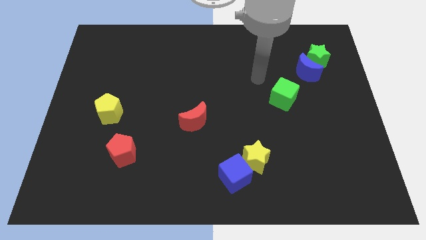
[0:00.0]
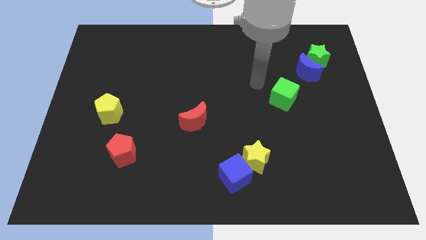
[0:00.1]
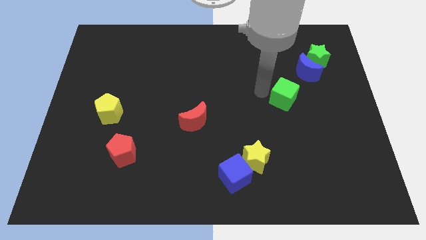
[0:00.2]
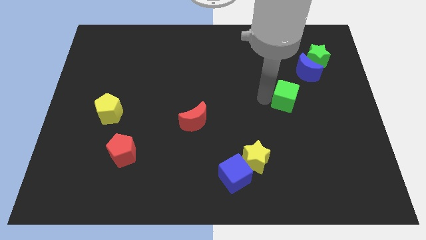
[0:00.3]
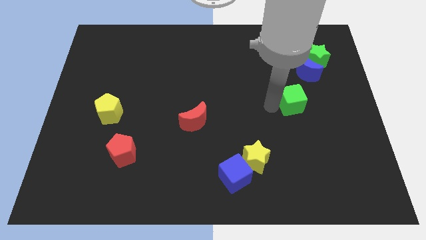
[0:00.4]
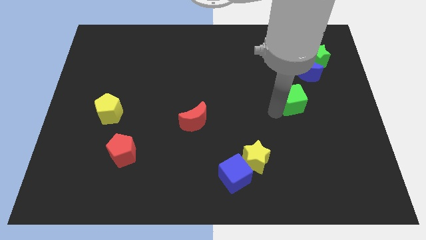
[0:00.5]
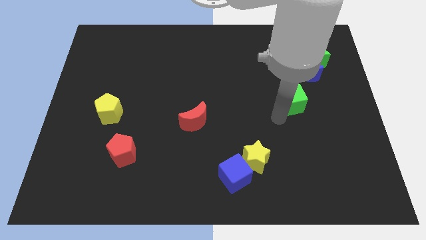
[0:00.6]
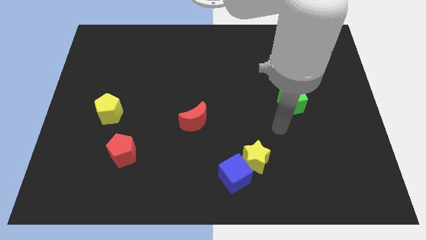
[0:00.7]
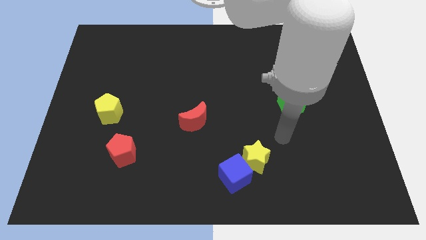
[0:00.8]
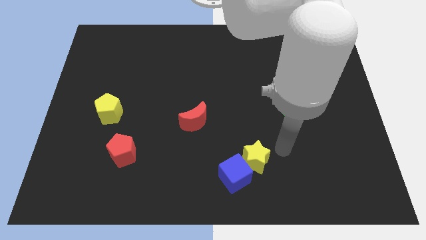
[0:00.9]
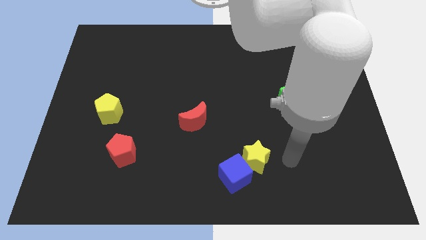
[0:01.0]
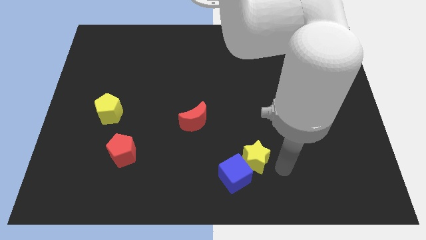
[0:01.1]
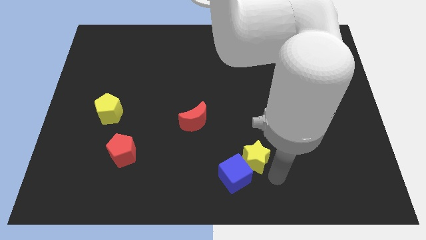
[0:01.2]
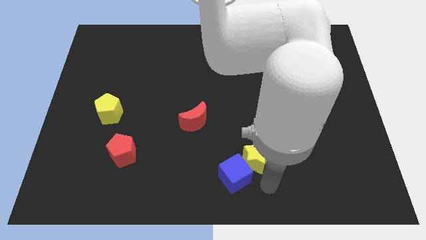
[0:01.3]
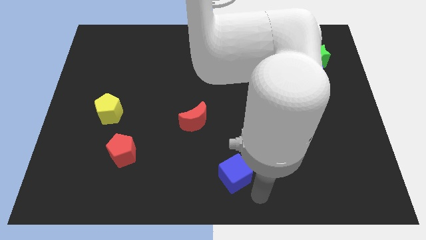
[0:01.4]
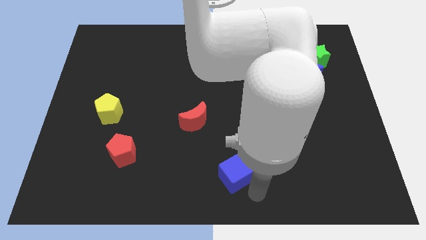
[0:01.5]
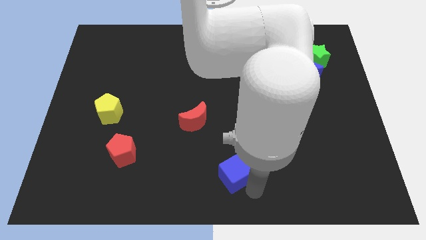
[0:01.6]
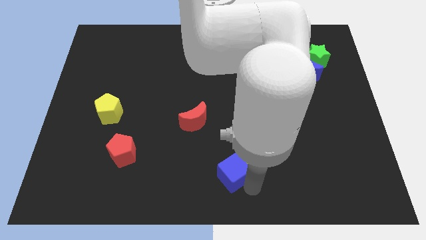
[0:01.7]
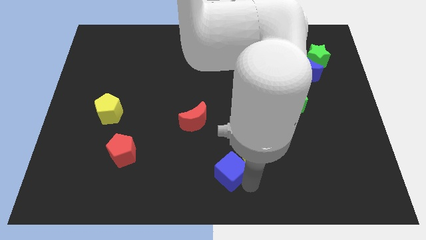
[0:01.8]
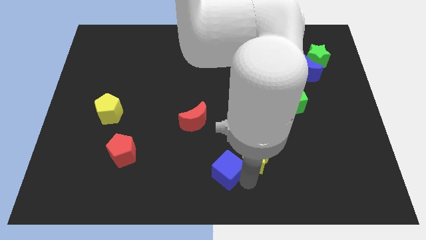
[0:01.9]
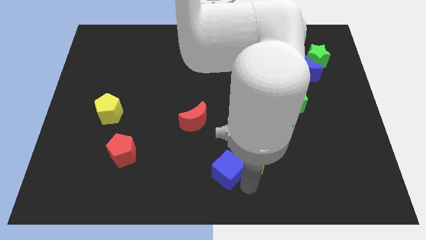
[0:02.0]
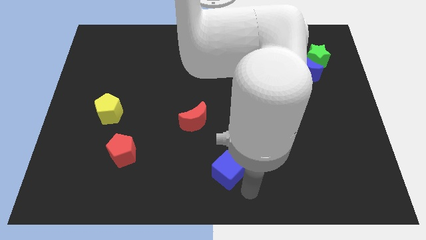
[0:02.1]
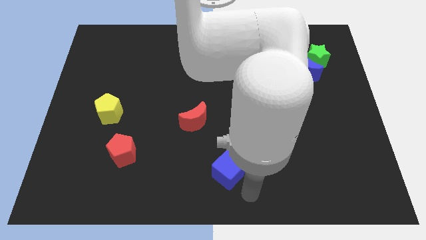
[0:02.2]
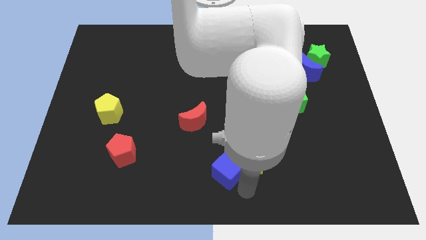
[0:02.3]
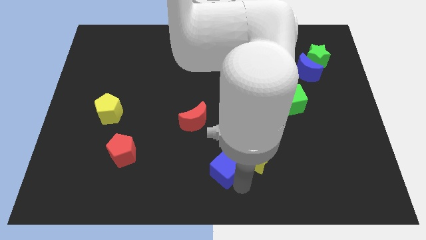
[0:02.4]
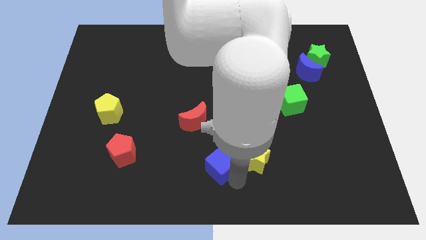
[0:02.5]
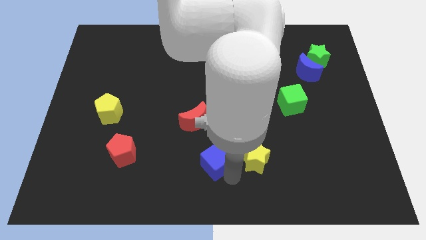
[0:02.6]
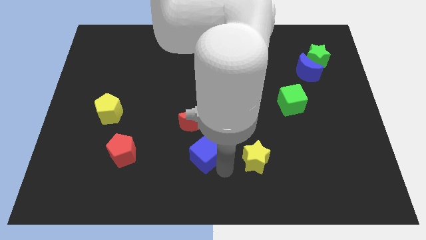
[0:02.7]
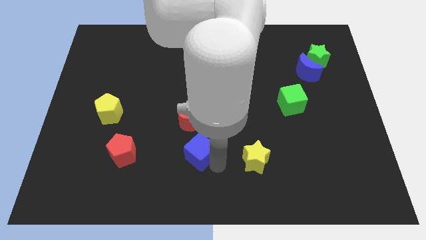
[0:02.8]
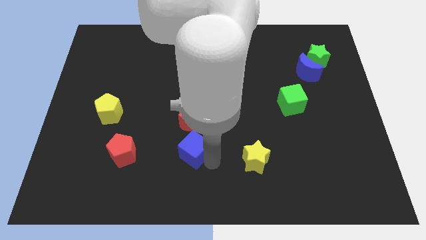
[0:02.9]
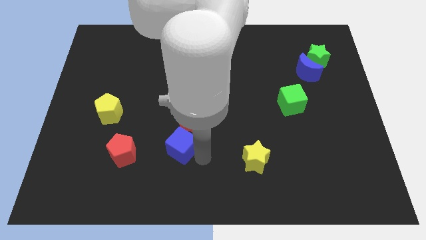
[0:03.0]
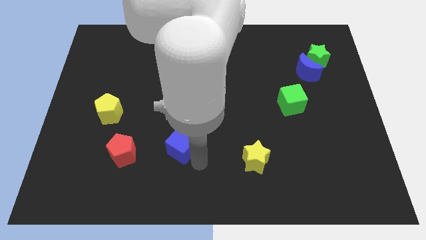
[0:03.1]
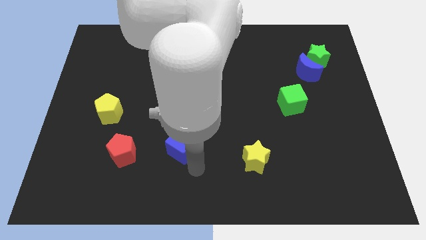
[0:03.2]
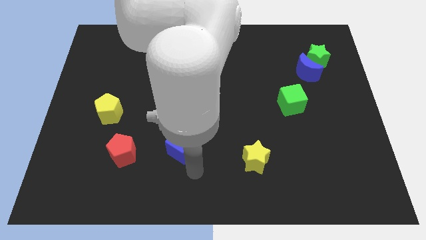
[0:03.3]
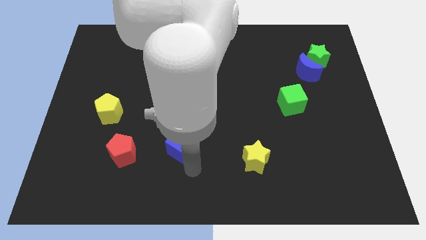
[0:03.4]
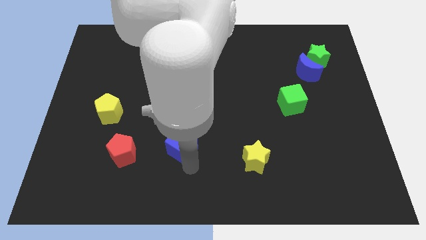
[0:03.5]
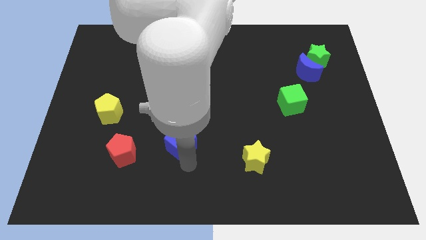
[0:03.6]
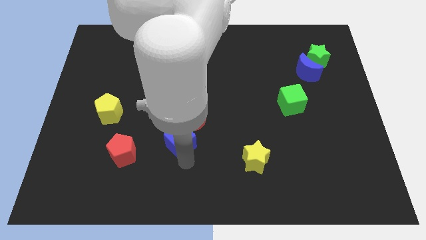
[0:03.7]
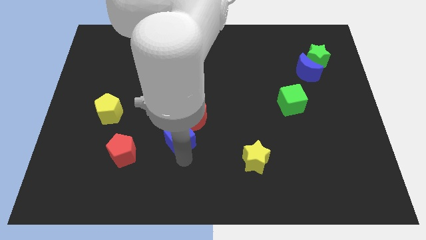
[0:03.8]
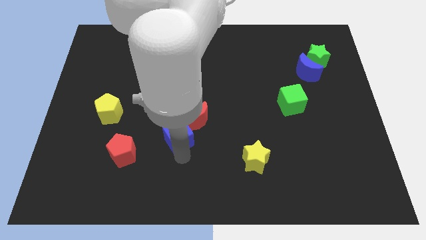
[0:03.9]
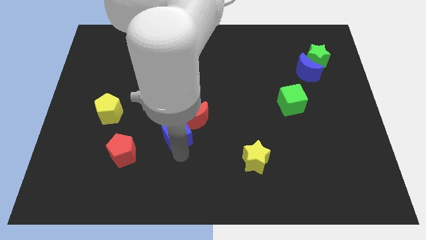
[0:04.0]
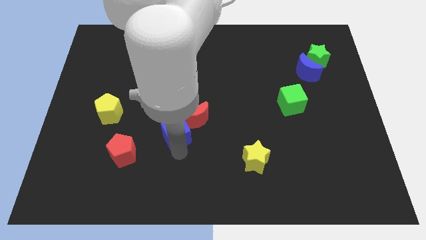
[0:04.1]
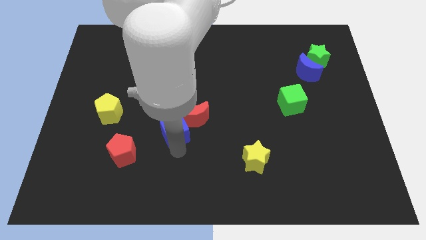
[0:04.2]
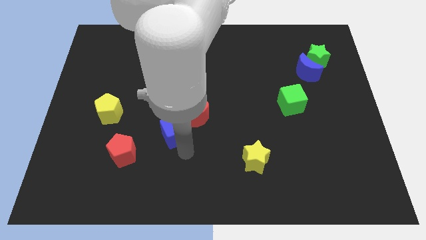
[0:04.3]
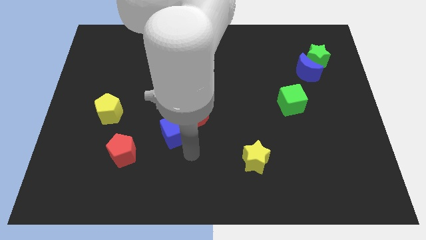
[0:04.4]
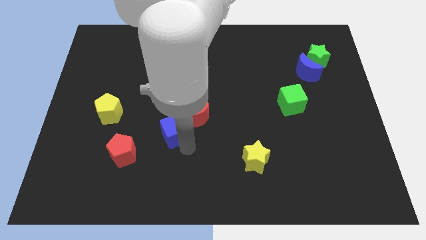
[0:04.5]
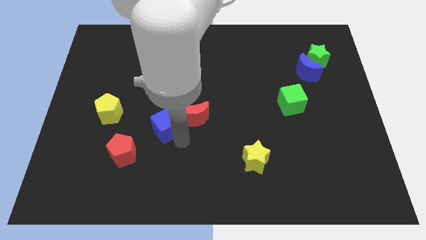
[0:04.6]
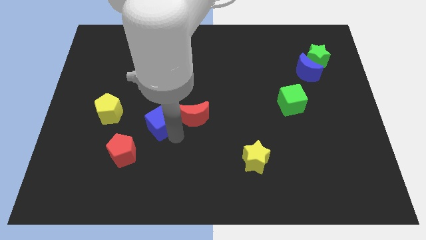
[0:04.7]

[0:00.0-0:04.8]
move the blue cube diagonally upwards and left

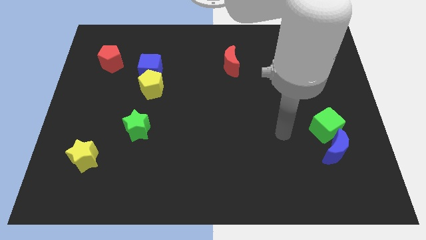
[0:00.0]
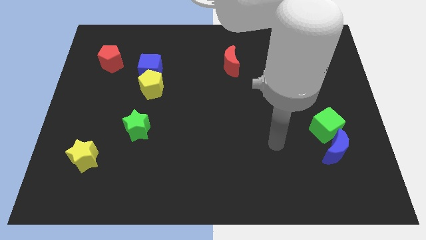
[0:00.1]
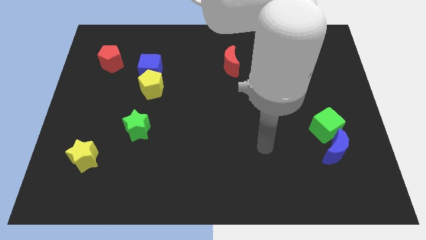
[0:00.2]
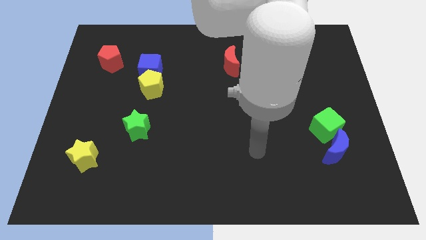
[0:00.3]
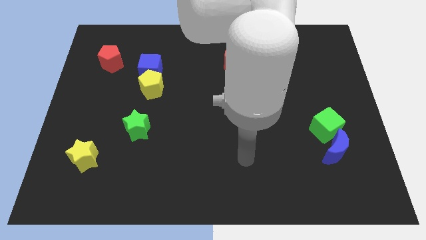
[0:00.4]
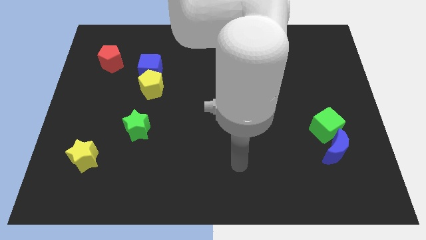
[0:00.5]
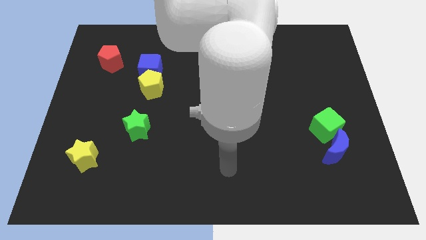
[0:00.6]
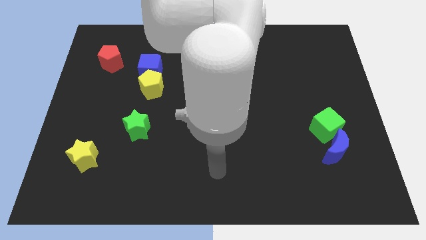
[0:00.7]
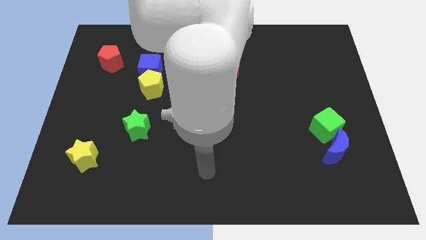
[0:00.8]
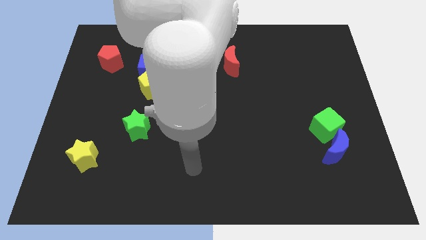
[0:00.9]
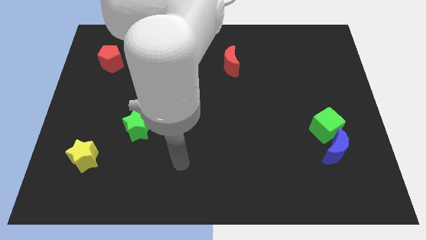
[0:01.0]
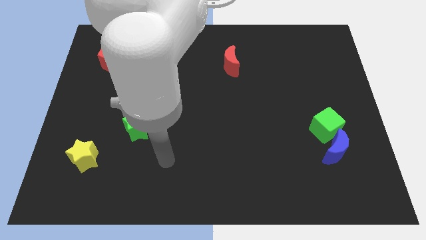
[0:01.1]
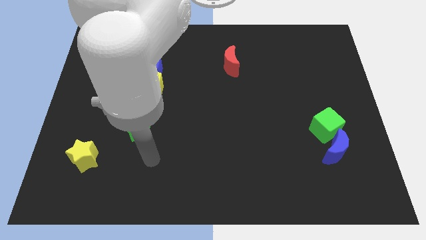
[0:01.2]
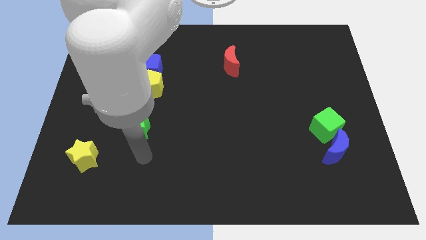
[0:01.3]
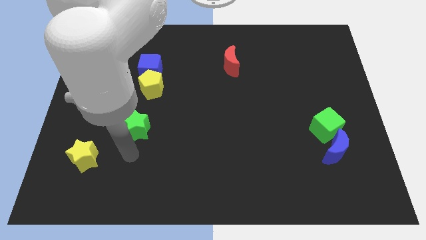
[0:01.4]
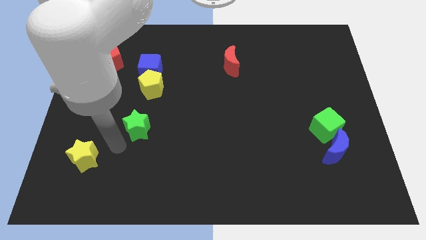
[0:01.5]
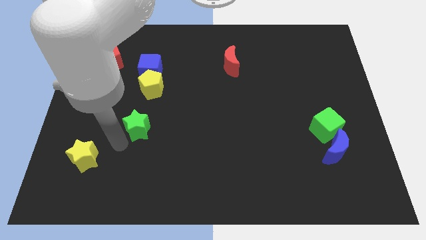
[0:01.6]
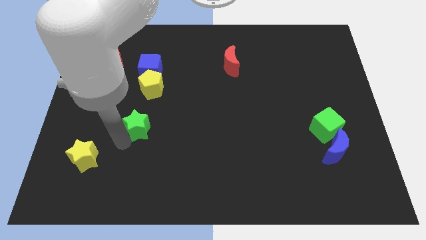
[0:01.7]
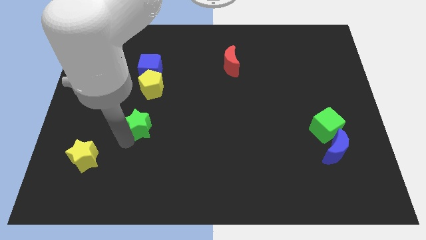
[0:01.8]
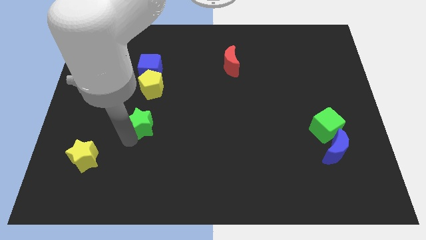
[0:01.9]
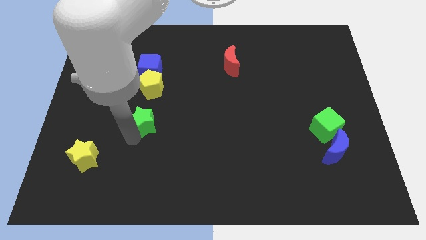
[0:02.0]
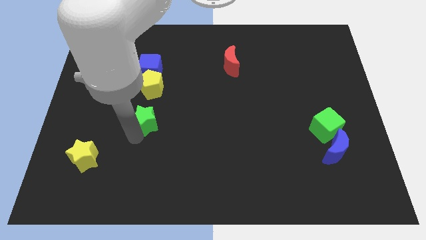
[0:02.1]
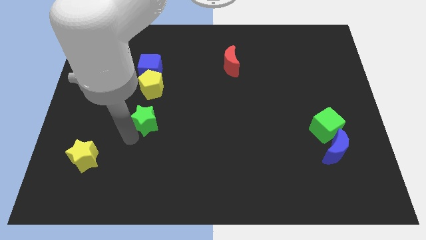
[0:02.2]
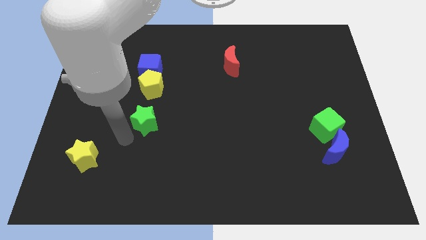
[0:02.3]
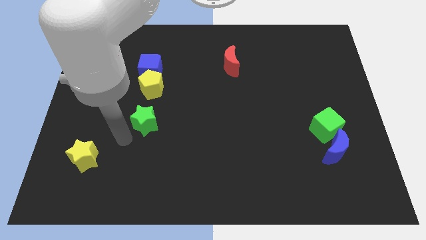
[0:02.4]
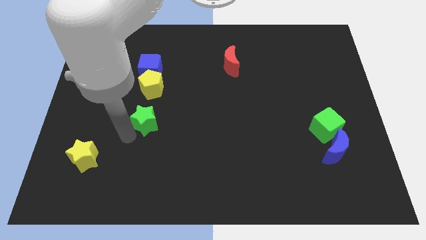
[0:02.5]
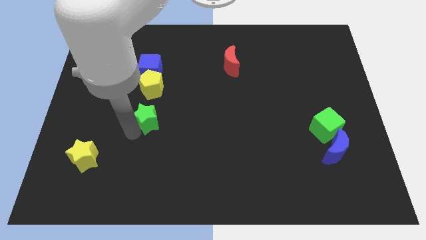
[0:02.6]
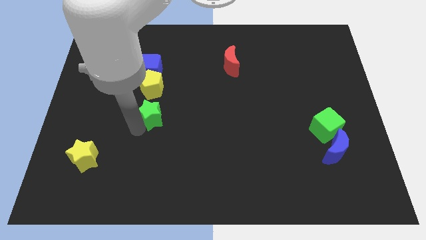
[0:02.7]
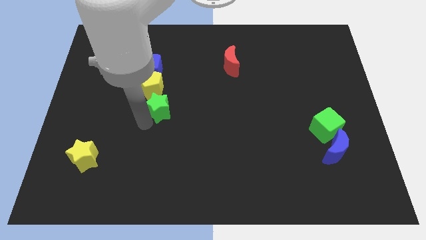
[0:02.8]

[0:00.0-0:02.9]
push the green star diagonally upwards and right a little
